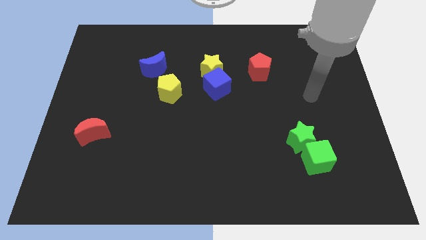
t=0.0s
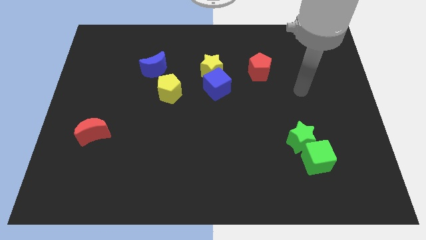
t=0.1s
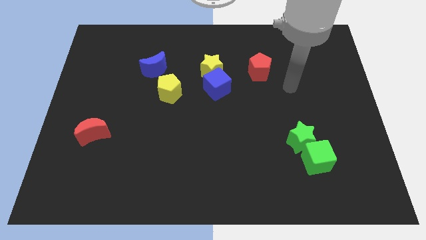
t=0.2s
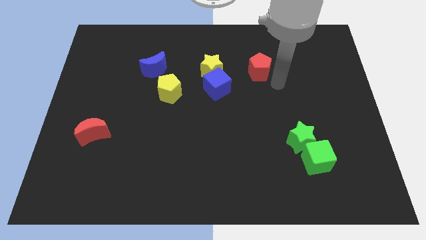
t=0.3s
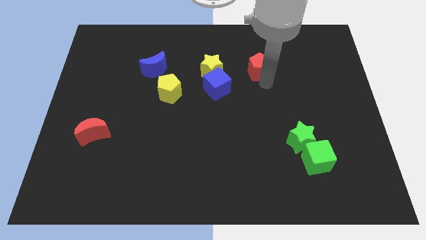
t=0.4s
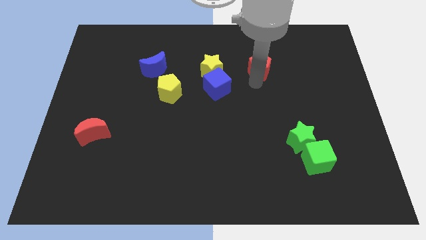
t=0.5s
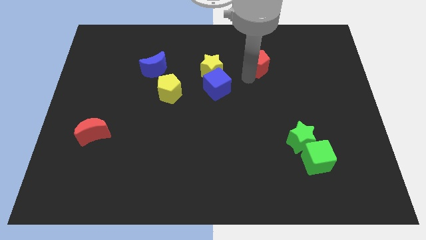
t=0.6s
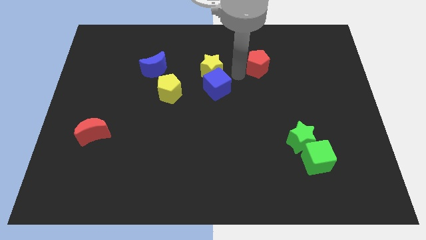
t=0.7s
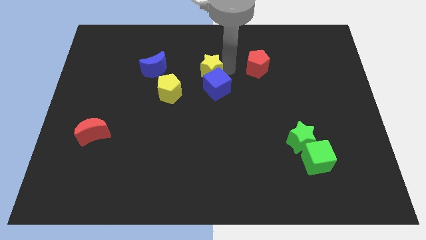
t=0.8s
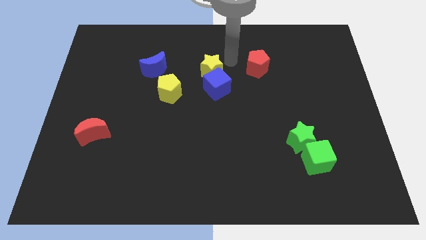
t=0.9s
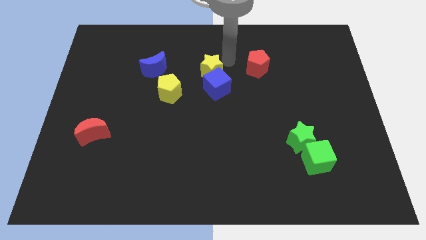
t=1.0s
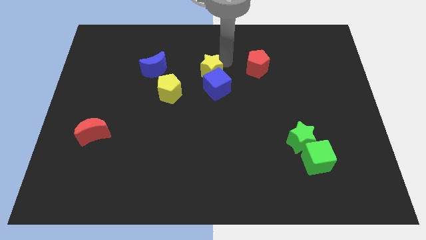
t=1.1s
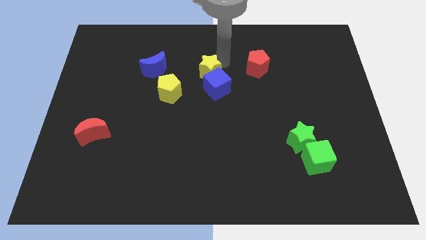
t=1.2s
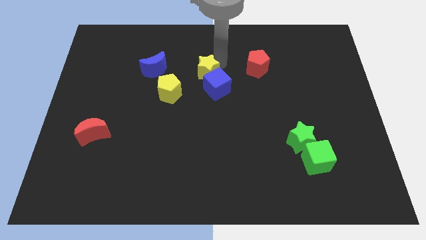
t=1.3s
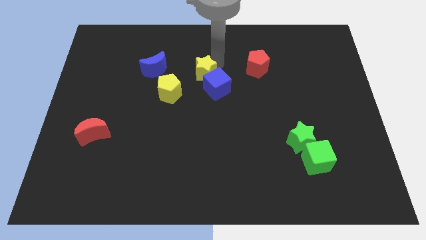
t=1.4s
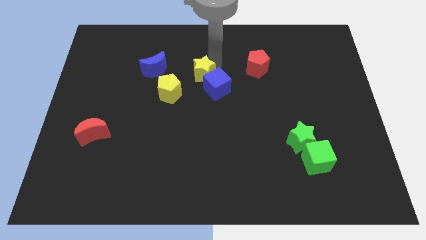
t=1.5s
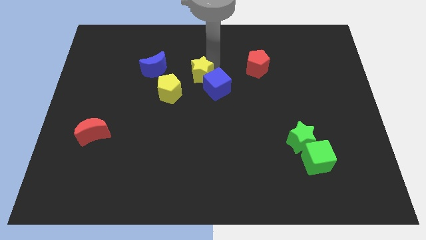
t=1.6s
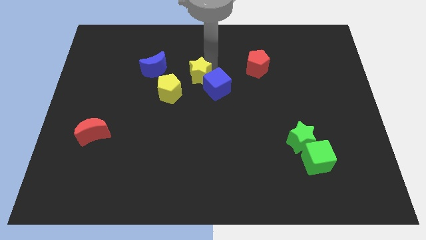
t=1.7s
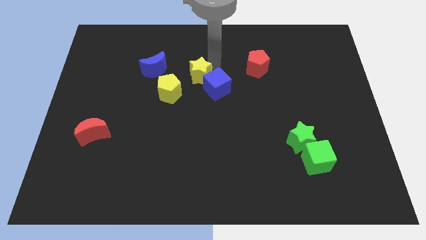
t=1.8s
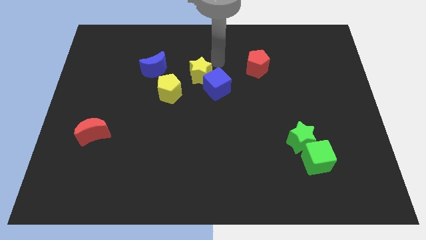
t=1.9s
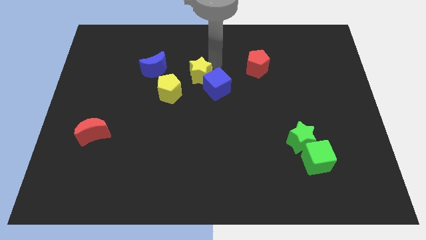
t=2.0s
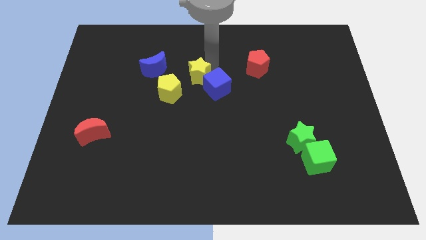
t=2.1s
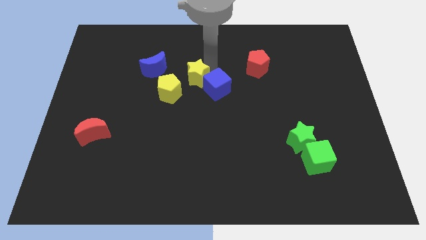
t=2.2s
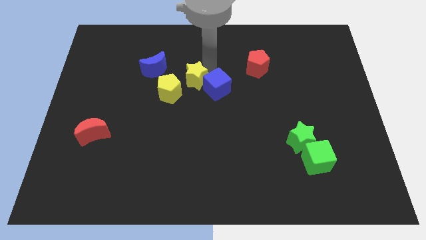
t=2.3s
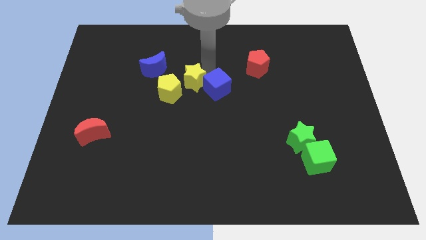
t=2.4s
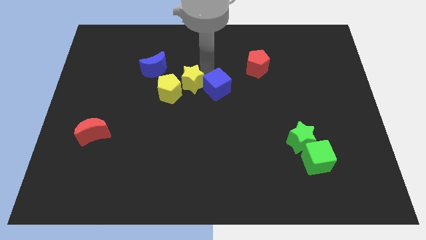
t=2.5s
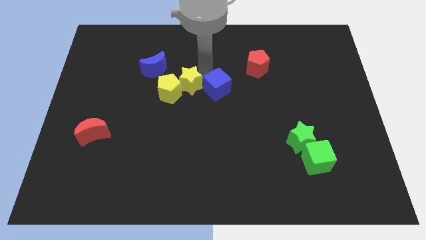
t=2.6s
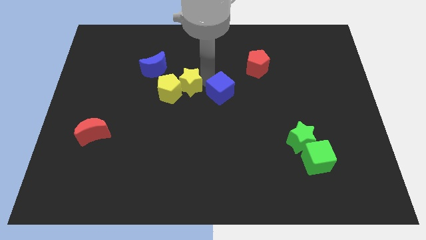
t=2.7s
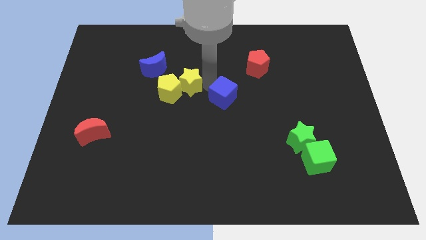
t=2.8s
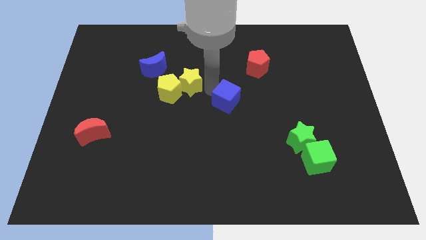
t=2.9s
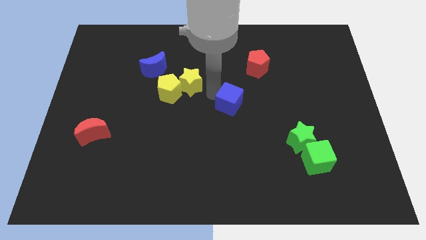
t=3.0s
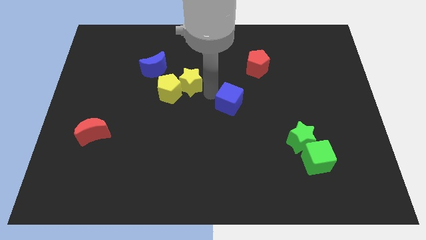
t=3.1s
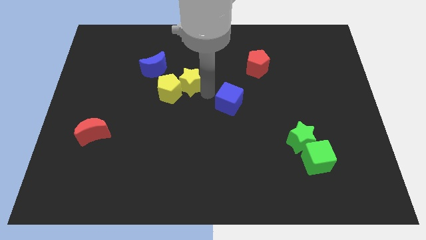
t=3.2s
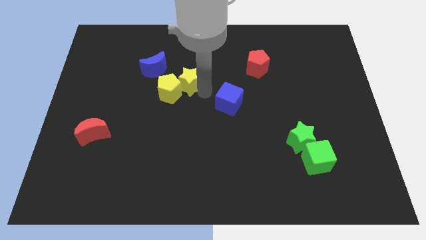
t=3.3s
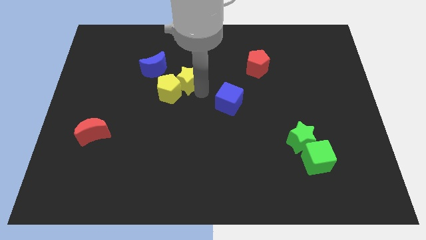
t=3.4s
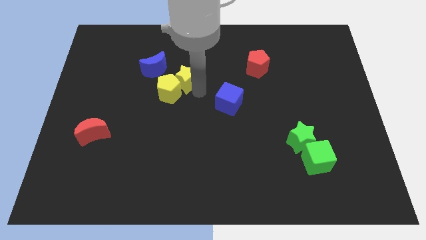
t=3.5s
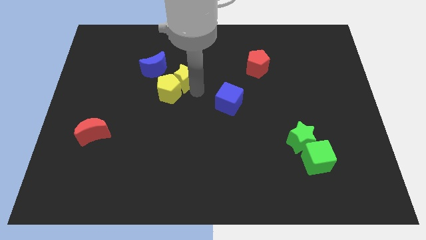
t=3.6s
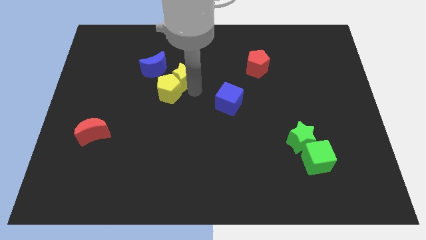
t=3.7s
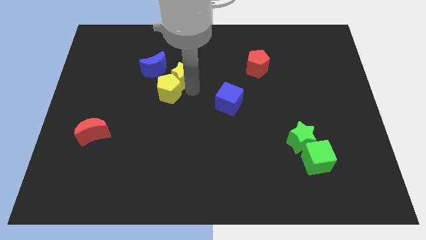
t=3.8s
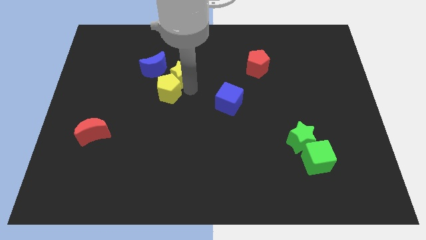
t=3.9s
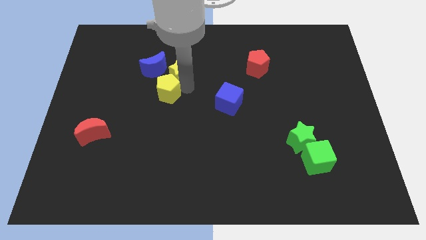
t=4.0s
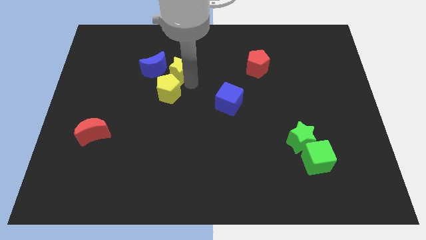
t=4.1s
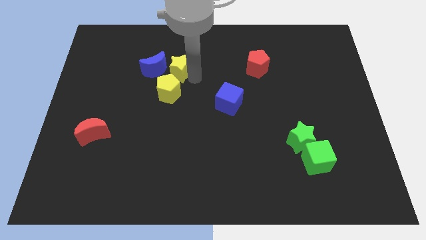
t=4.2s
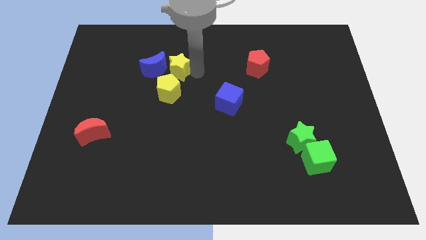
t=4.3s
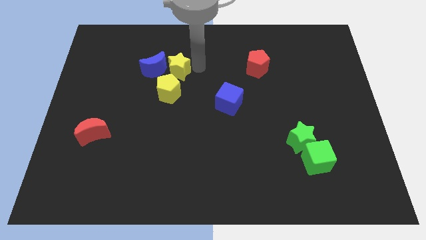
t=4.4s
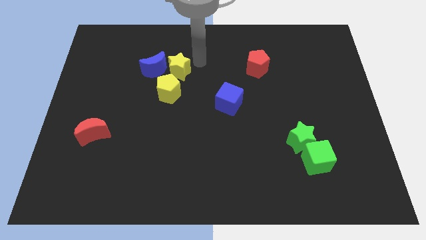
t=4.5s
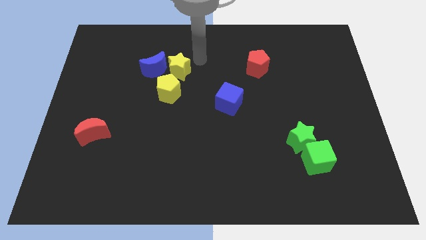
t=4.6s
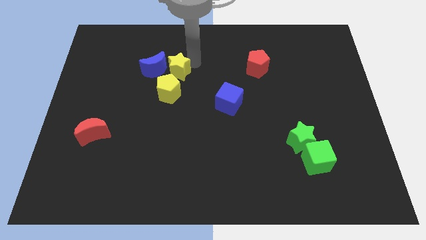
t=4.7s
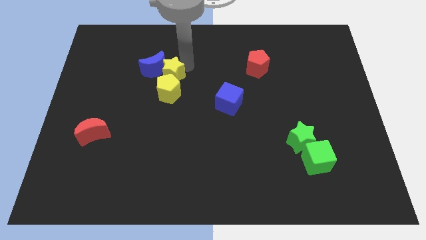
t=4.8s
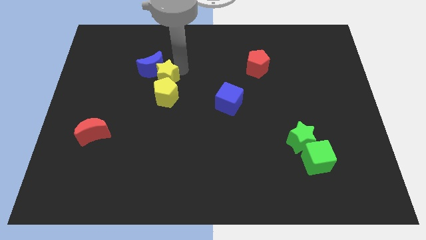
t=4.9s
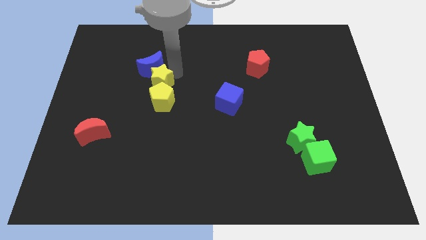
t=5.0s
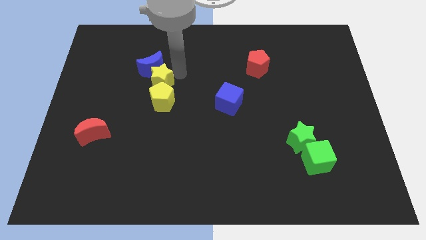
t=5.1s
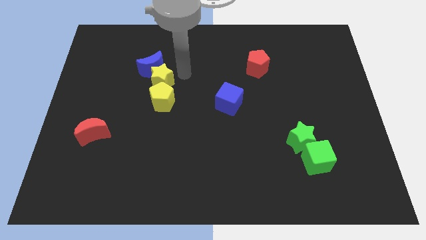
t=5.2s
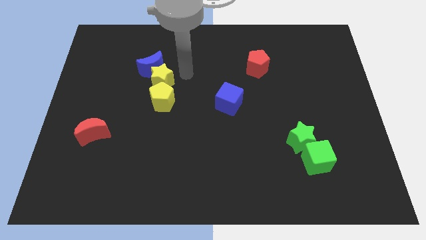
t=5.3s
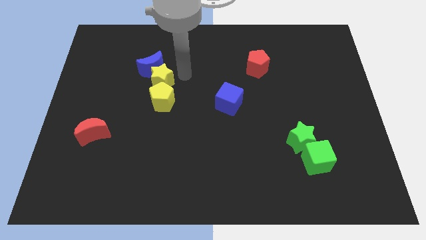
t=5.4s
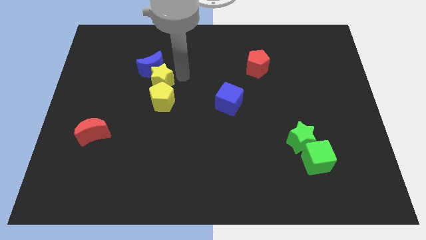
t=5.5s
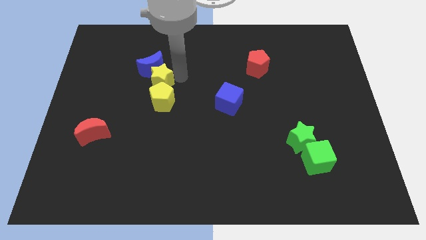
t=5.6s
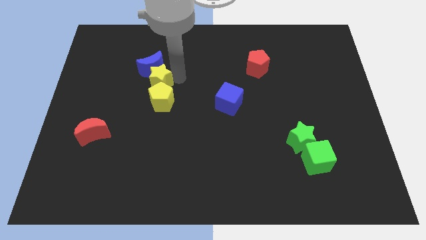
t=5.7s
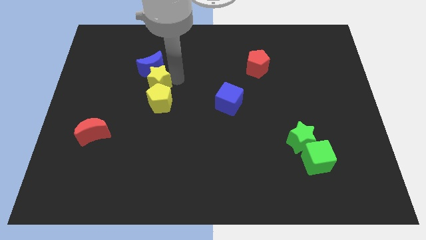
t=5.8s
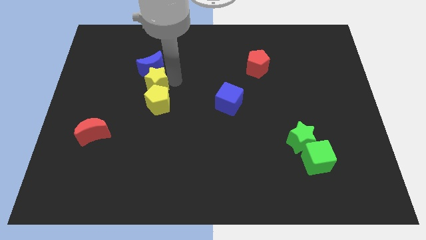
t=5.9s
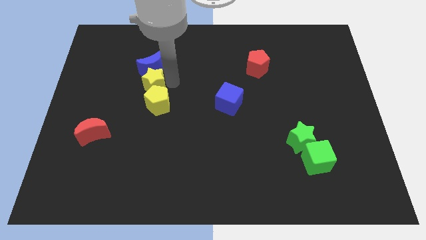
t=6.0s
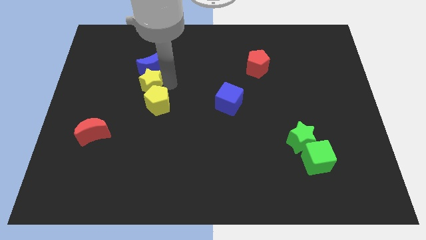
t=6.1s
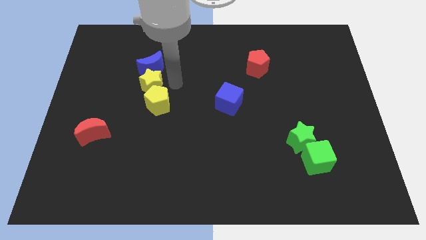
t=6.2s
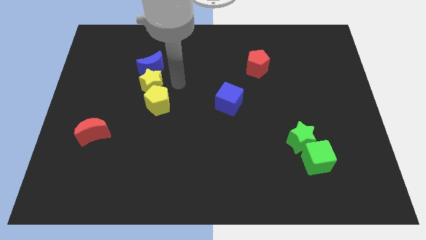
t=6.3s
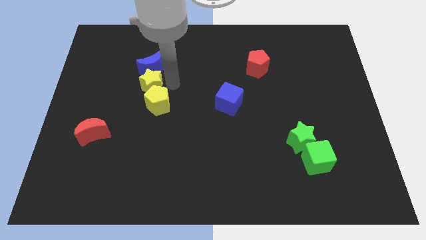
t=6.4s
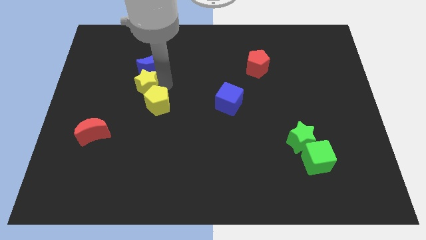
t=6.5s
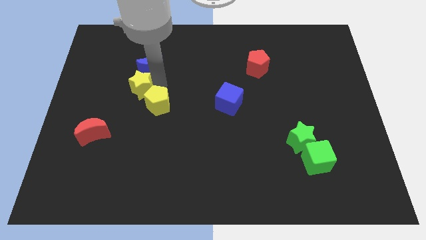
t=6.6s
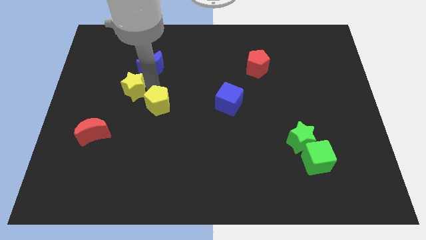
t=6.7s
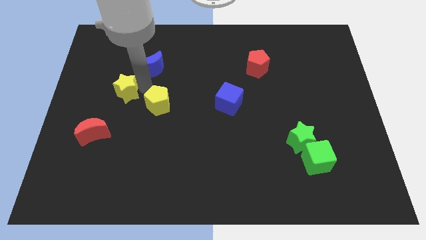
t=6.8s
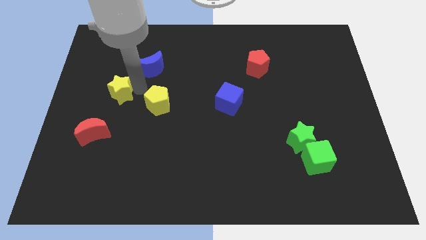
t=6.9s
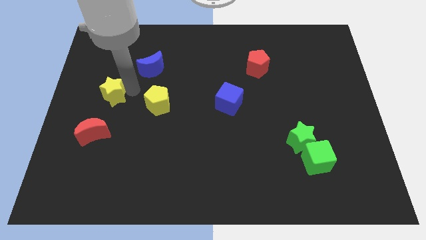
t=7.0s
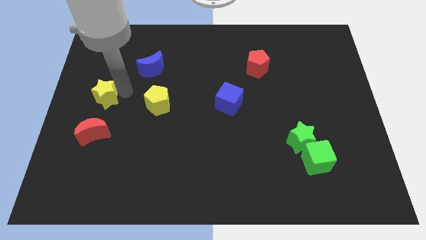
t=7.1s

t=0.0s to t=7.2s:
slide the yellow star to the left side of the board
